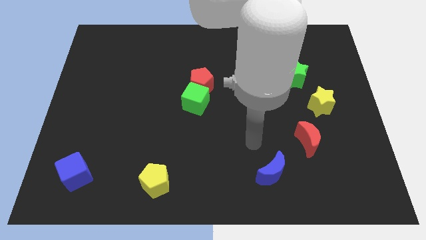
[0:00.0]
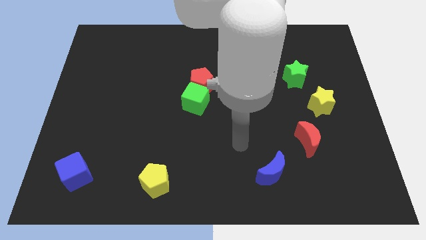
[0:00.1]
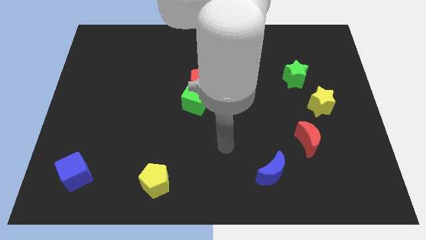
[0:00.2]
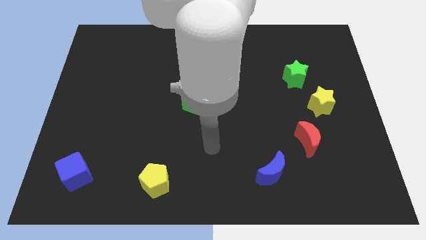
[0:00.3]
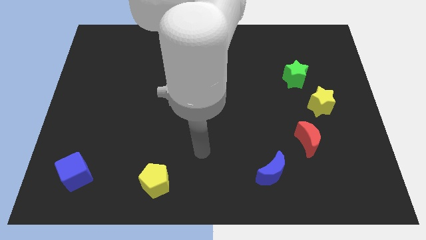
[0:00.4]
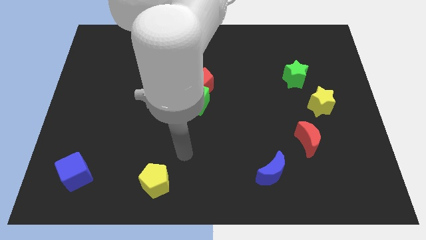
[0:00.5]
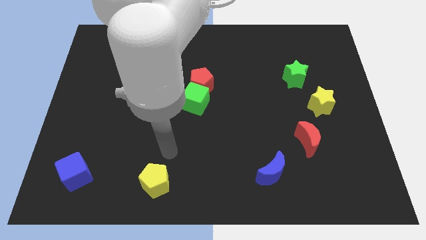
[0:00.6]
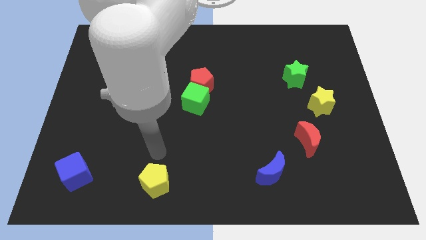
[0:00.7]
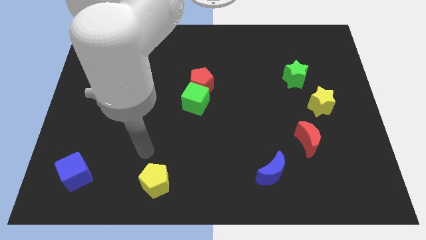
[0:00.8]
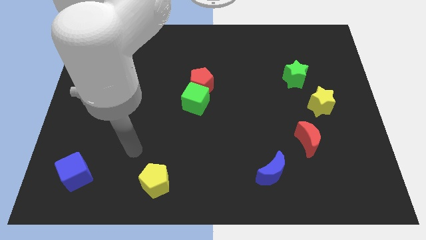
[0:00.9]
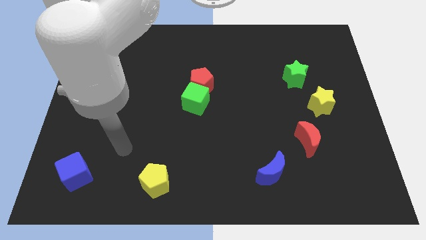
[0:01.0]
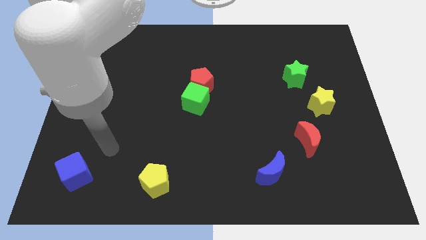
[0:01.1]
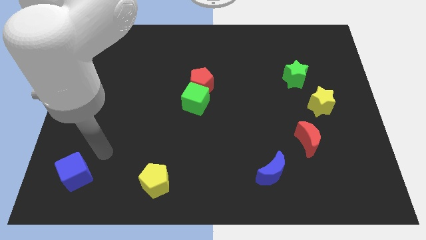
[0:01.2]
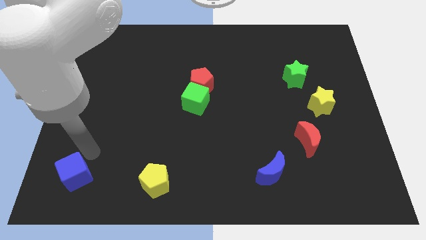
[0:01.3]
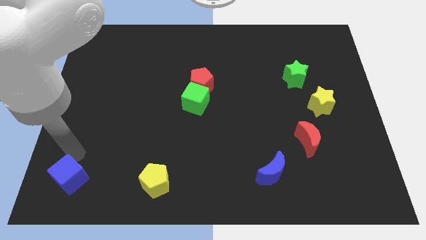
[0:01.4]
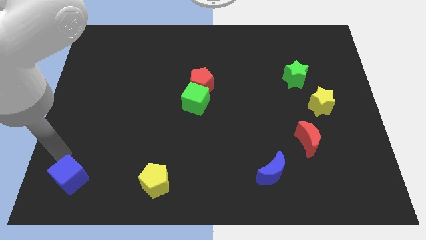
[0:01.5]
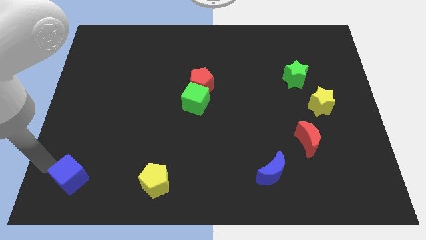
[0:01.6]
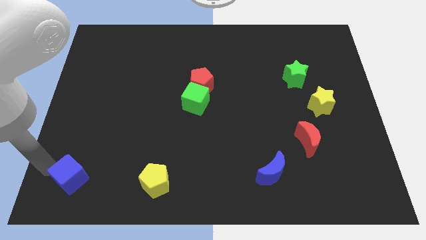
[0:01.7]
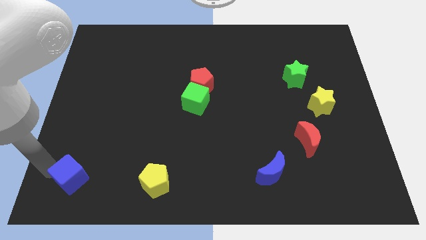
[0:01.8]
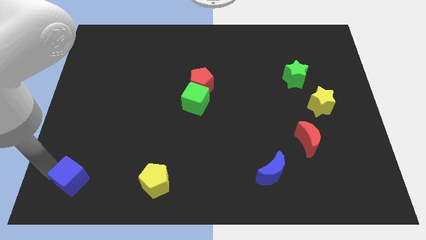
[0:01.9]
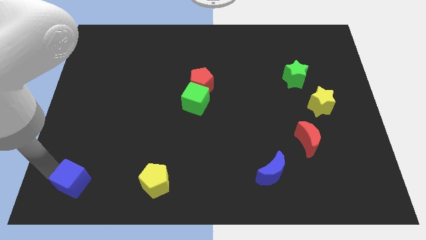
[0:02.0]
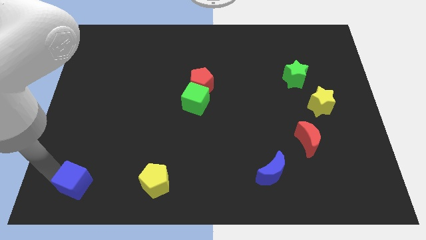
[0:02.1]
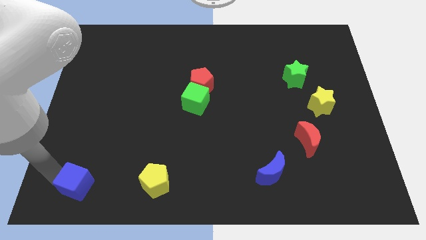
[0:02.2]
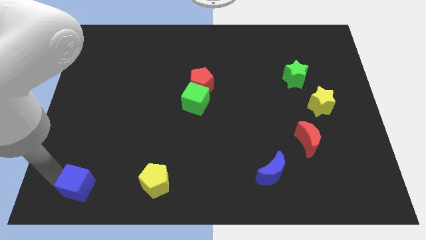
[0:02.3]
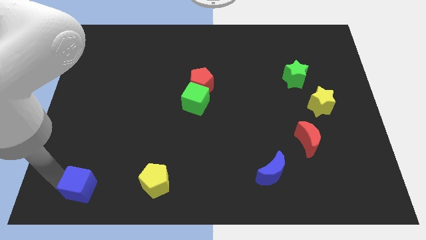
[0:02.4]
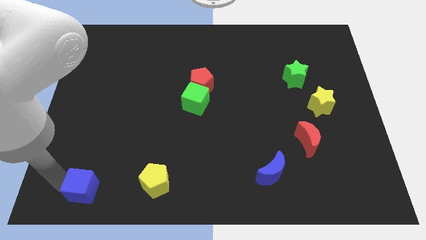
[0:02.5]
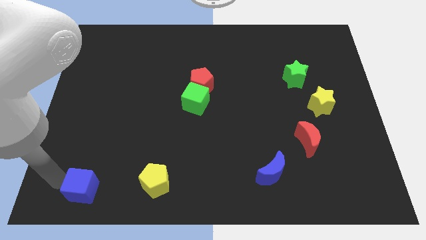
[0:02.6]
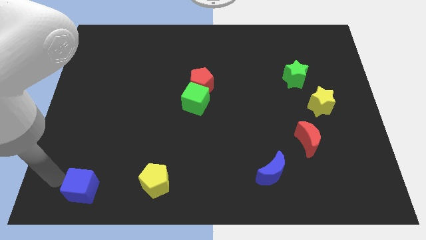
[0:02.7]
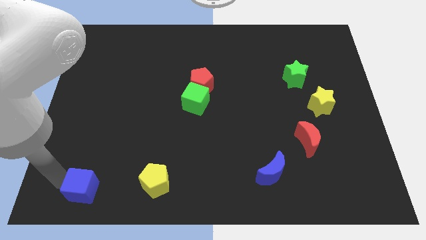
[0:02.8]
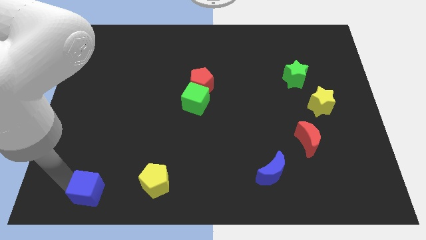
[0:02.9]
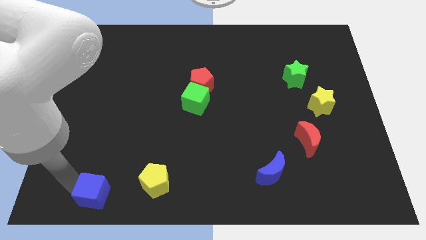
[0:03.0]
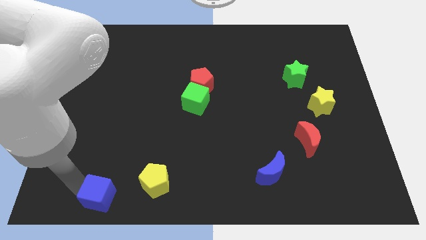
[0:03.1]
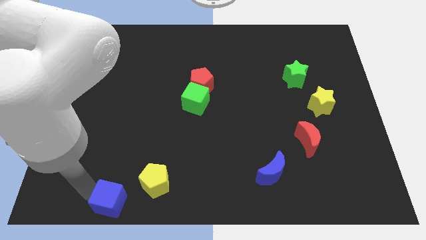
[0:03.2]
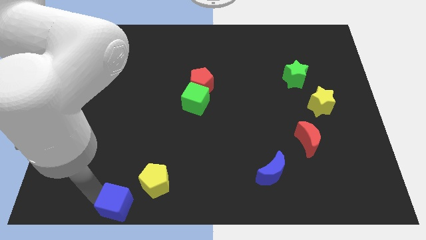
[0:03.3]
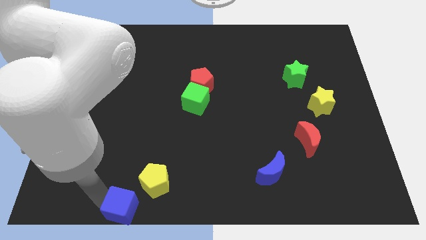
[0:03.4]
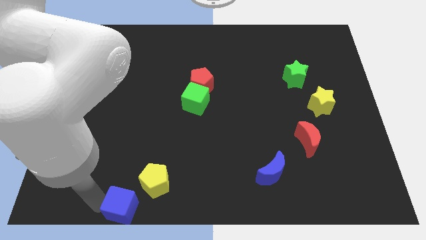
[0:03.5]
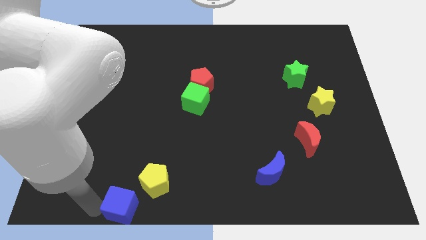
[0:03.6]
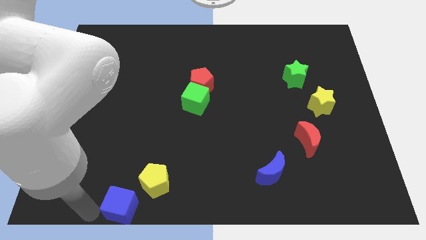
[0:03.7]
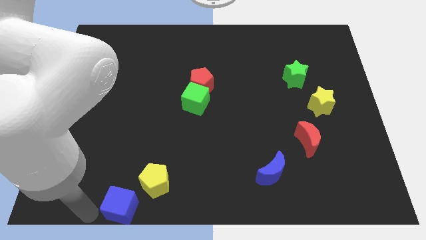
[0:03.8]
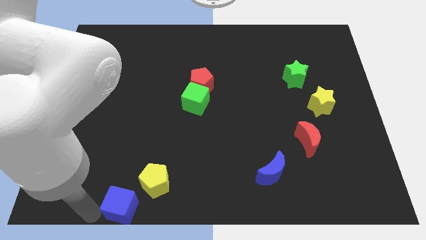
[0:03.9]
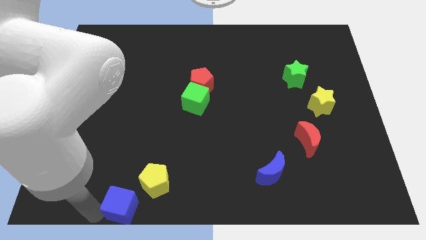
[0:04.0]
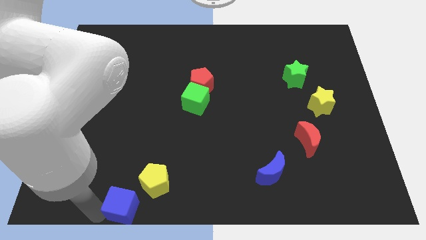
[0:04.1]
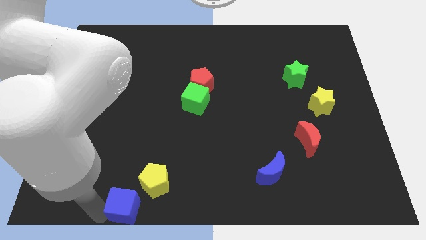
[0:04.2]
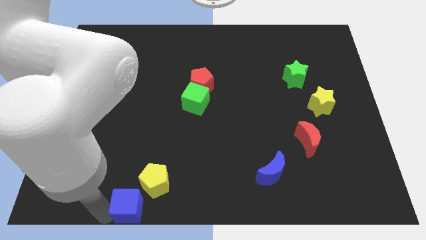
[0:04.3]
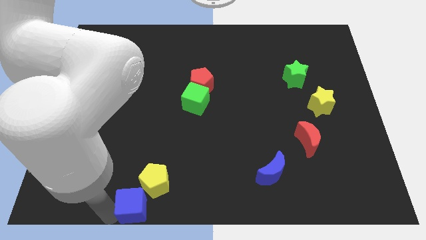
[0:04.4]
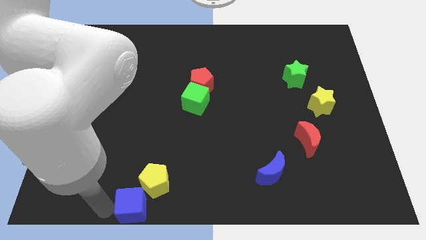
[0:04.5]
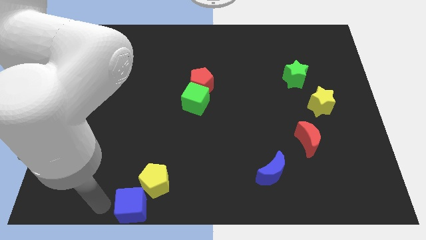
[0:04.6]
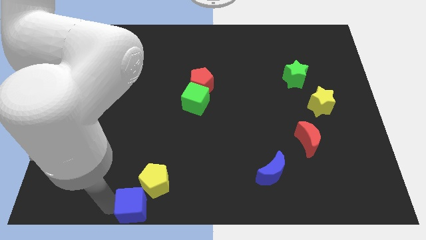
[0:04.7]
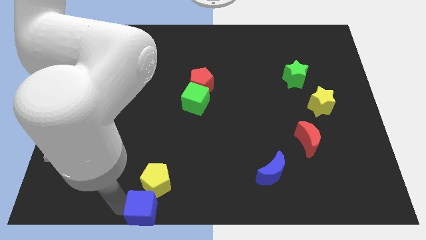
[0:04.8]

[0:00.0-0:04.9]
move the blue cube to the bottom

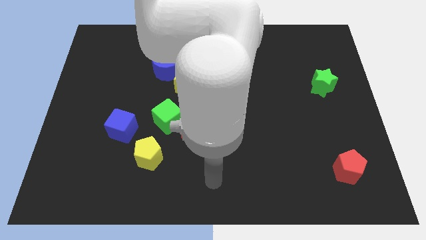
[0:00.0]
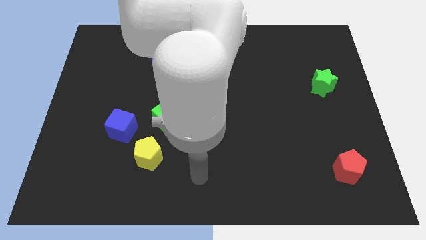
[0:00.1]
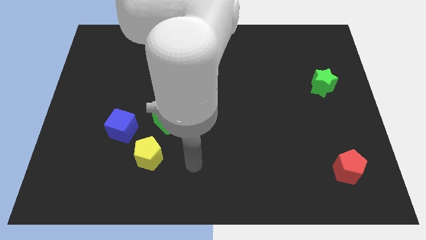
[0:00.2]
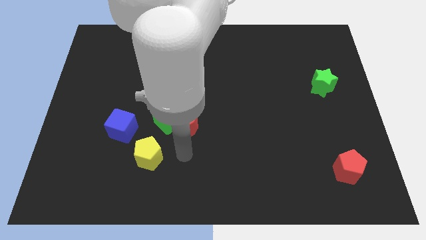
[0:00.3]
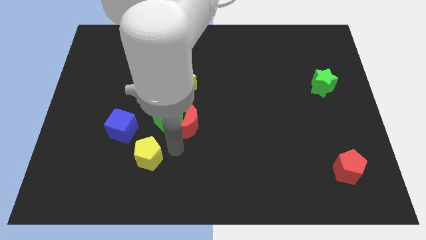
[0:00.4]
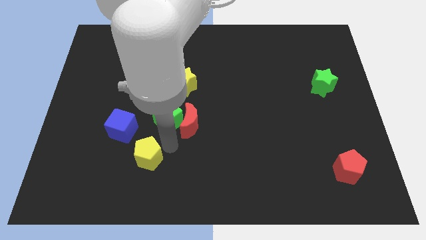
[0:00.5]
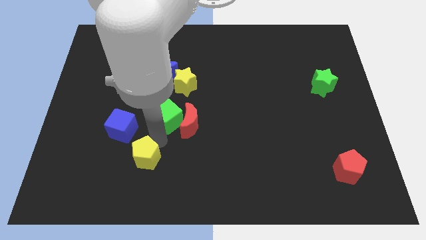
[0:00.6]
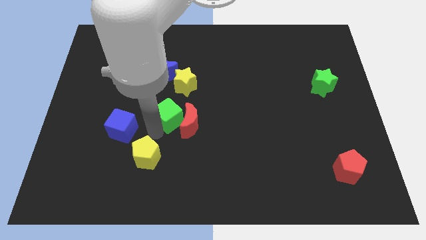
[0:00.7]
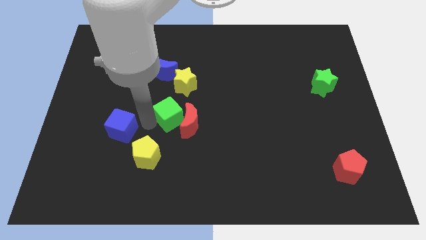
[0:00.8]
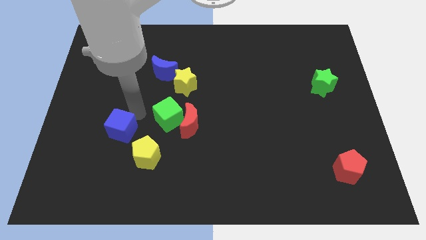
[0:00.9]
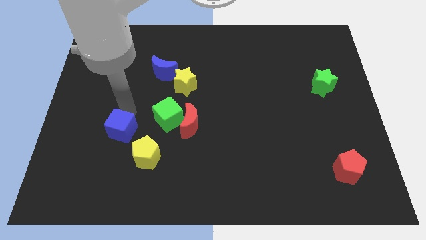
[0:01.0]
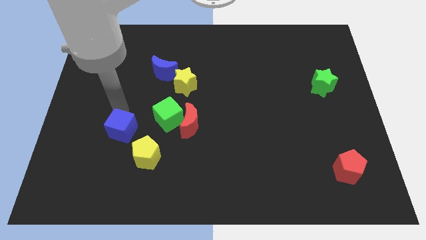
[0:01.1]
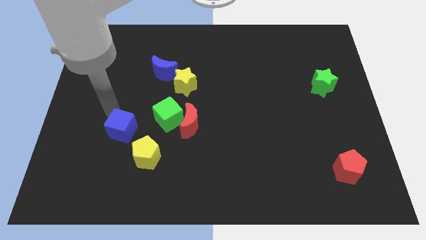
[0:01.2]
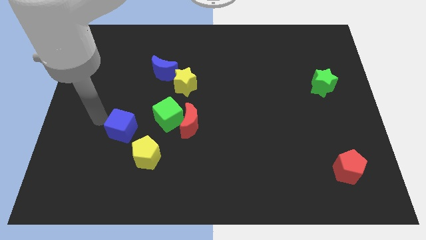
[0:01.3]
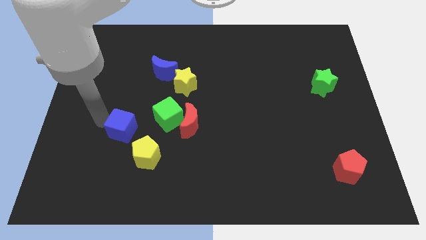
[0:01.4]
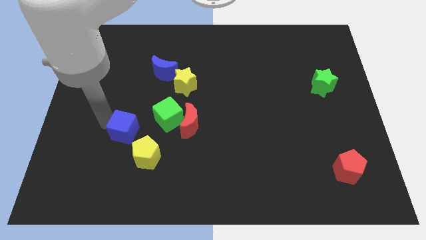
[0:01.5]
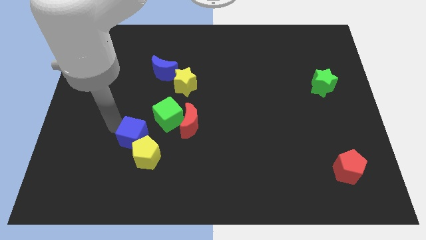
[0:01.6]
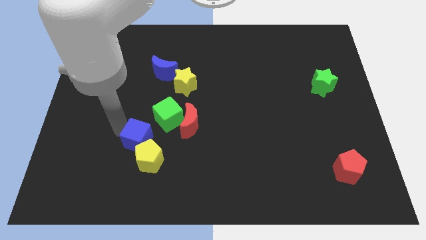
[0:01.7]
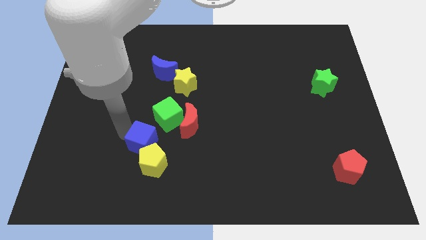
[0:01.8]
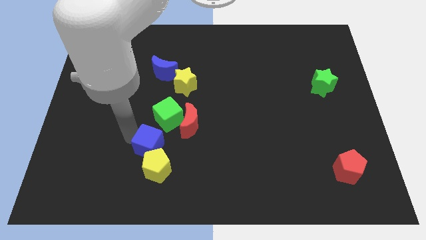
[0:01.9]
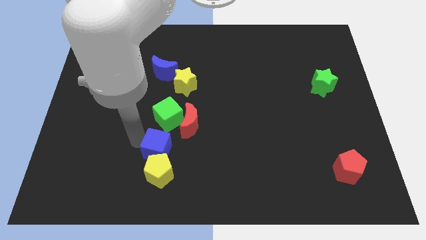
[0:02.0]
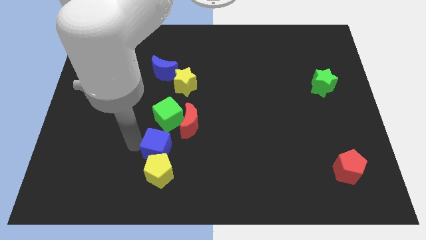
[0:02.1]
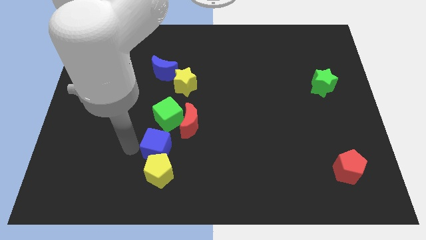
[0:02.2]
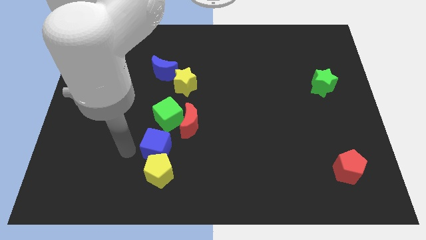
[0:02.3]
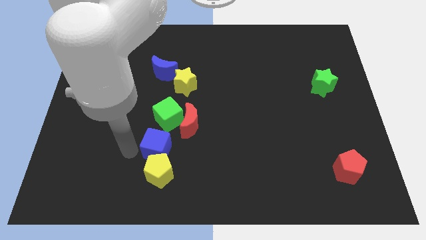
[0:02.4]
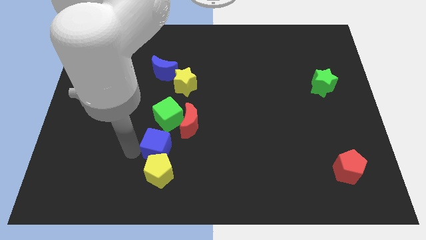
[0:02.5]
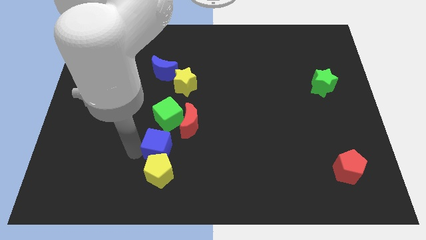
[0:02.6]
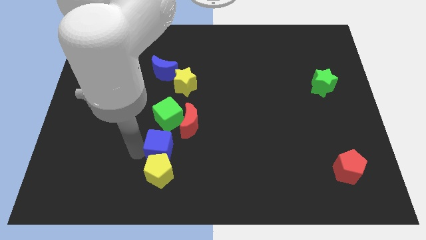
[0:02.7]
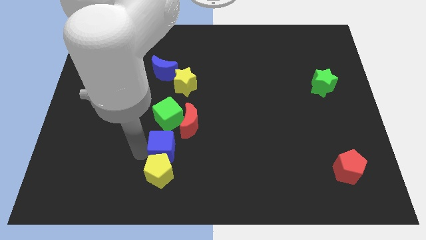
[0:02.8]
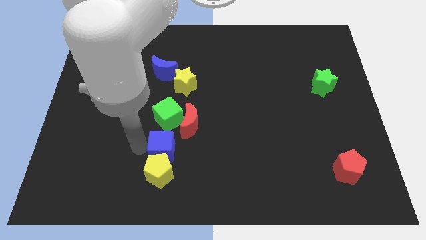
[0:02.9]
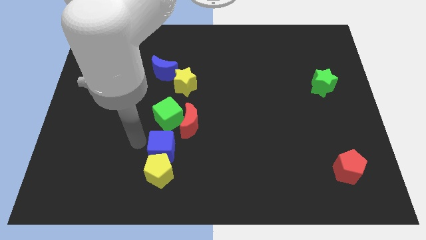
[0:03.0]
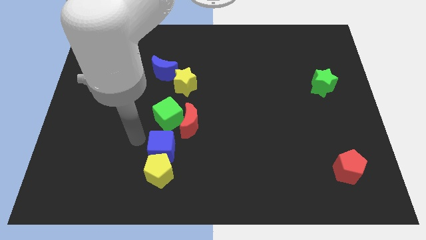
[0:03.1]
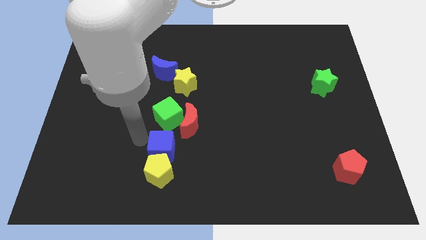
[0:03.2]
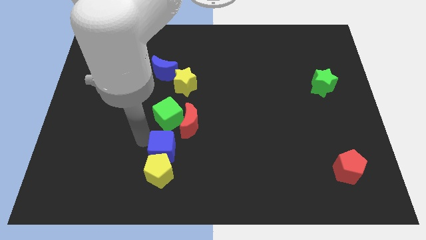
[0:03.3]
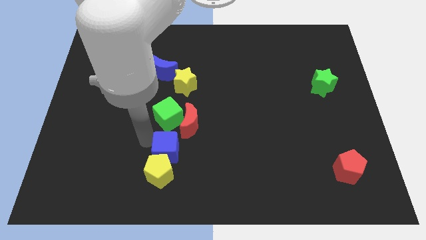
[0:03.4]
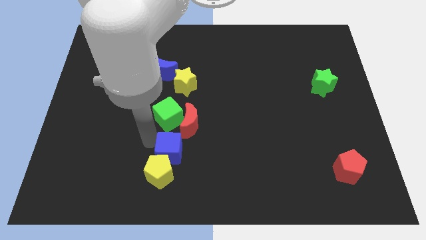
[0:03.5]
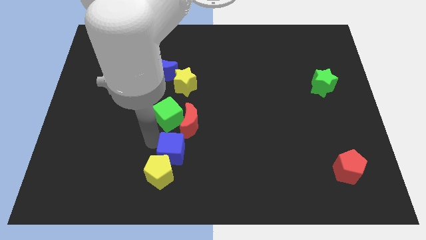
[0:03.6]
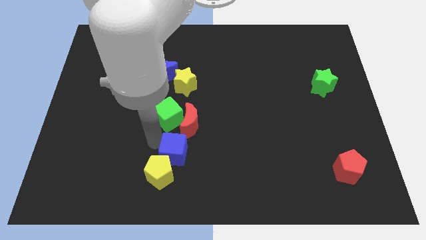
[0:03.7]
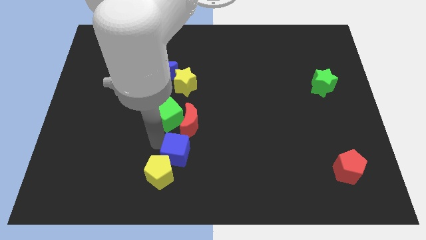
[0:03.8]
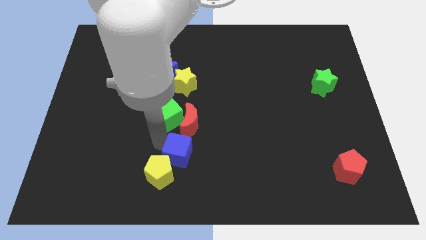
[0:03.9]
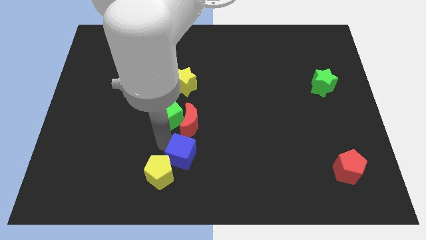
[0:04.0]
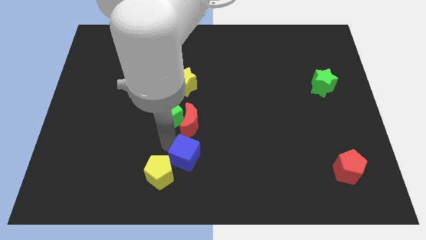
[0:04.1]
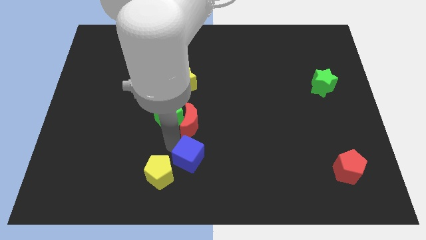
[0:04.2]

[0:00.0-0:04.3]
put the blue cube to the bottom side
